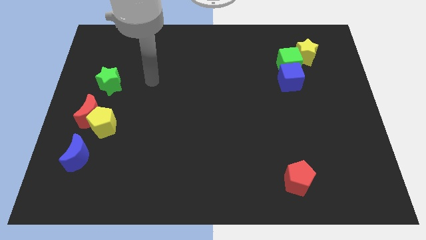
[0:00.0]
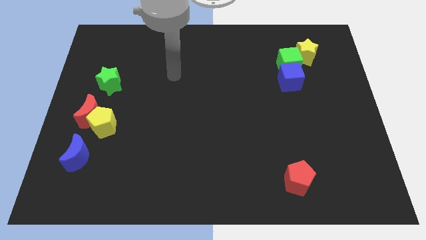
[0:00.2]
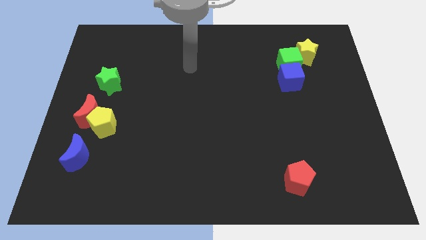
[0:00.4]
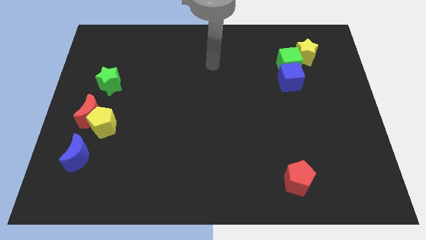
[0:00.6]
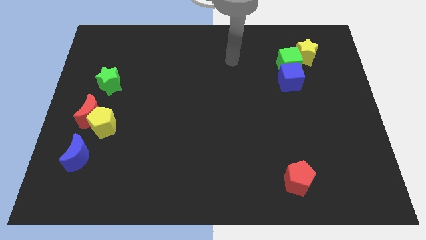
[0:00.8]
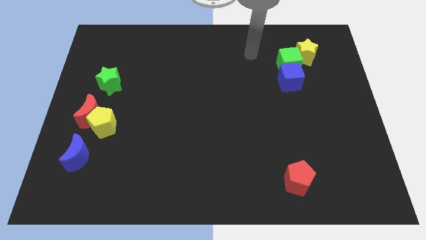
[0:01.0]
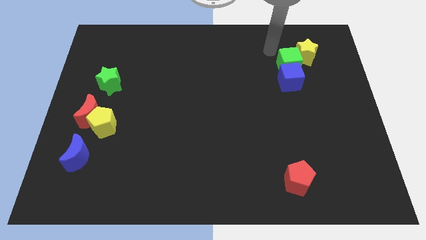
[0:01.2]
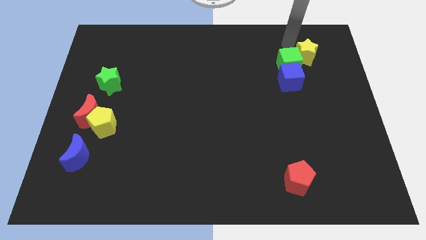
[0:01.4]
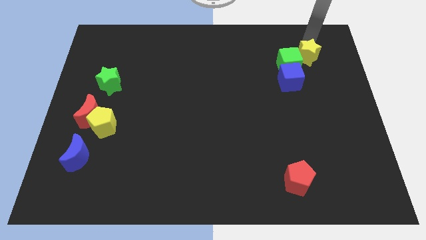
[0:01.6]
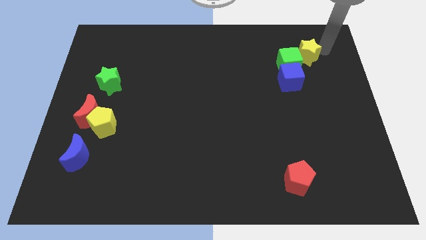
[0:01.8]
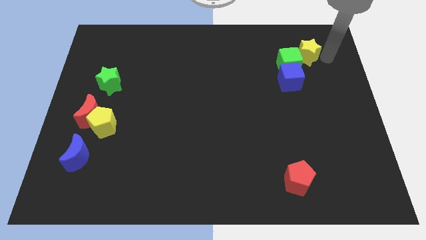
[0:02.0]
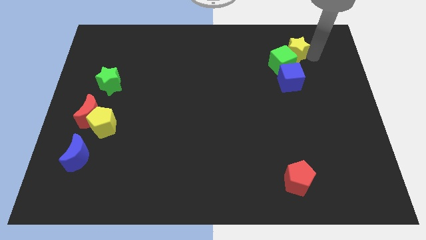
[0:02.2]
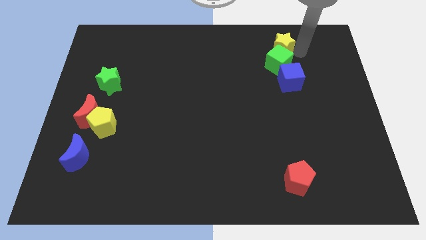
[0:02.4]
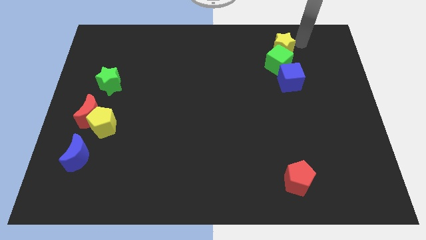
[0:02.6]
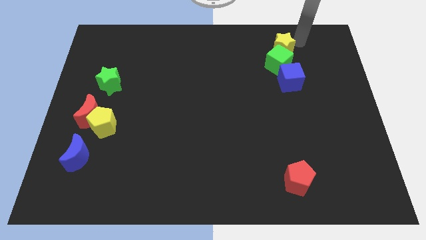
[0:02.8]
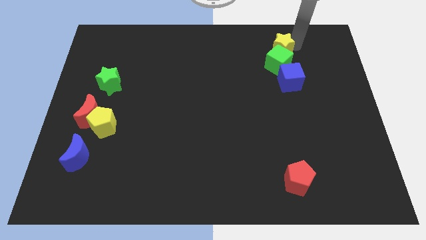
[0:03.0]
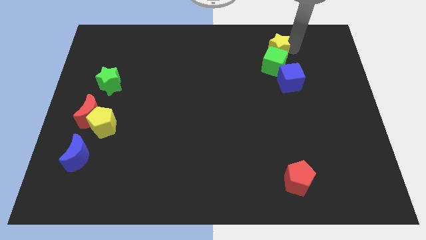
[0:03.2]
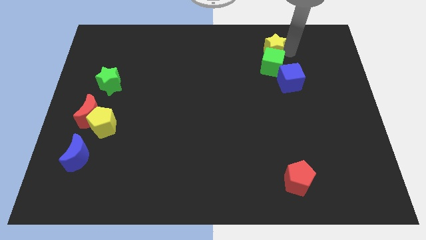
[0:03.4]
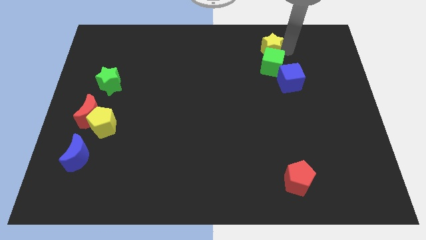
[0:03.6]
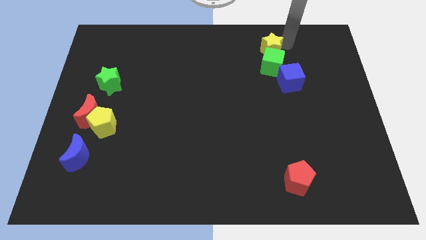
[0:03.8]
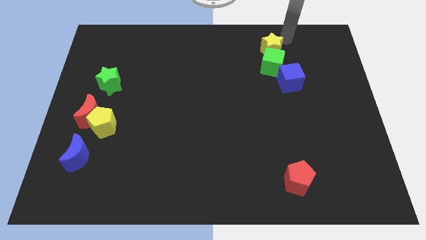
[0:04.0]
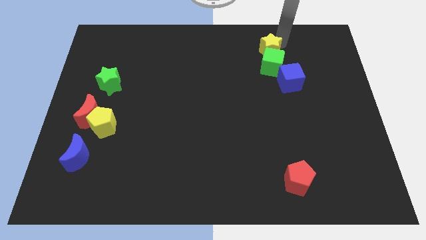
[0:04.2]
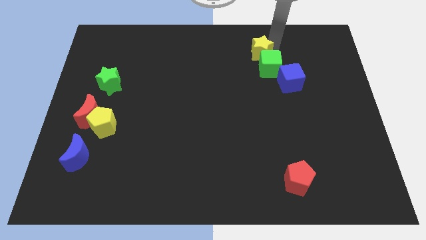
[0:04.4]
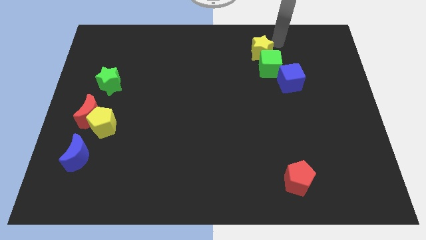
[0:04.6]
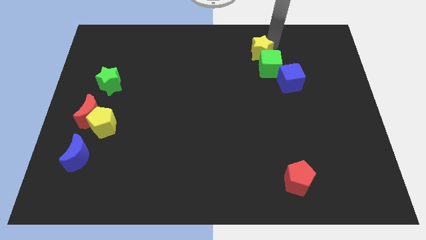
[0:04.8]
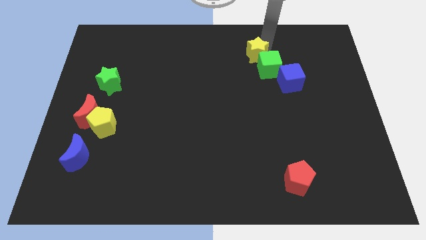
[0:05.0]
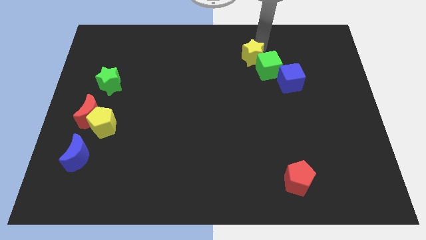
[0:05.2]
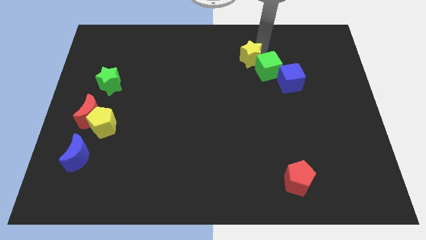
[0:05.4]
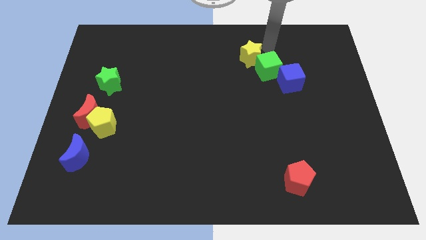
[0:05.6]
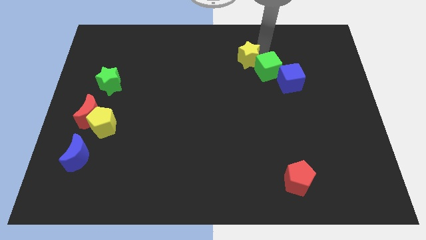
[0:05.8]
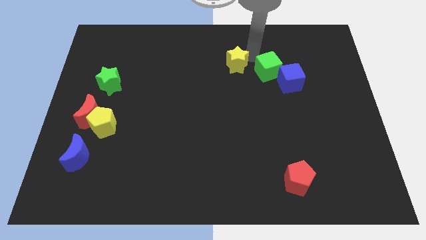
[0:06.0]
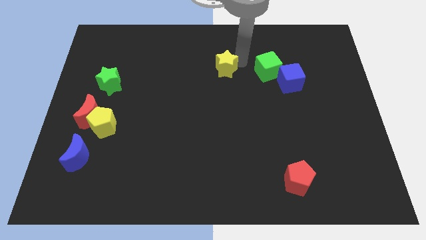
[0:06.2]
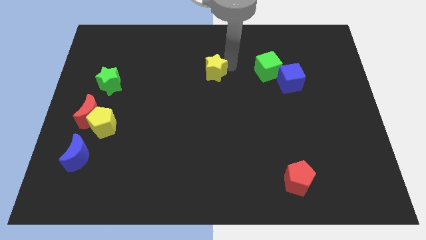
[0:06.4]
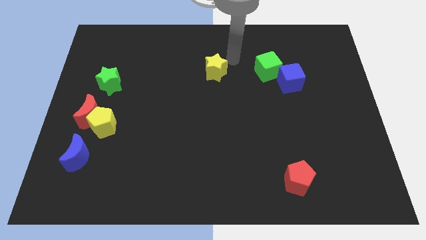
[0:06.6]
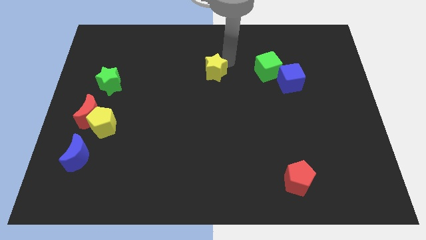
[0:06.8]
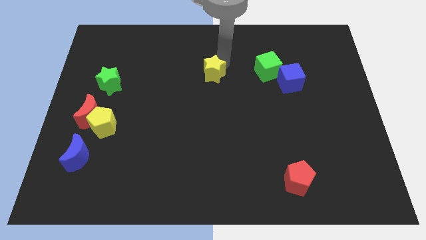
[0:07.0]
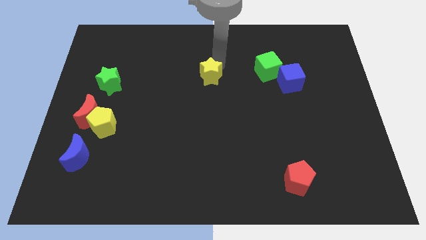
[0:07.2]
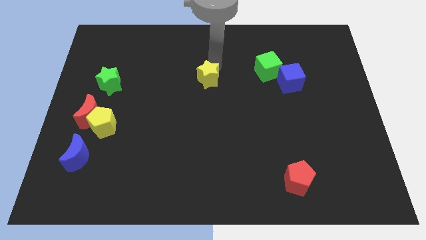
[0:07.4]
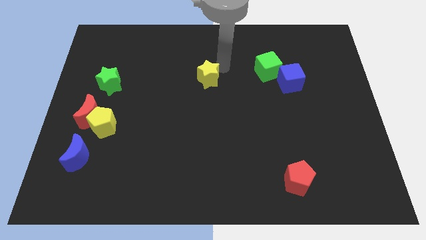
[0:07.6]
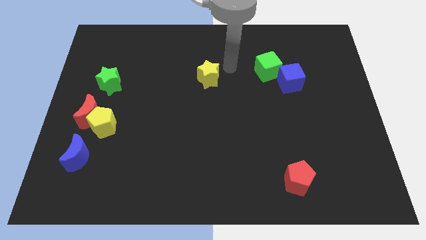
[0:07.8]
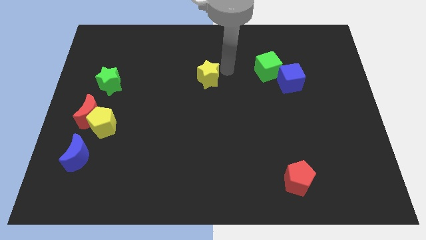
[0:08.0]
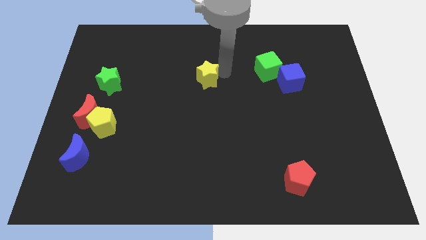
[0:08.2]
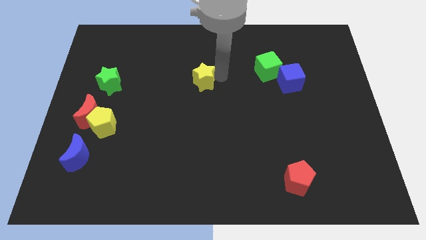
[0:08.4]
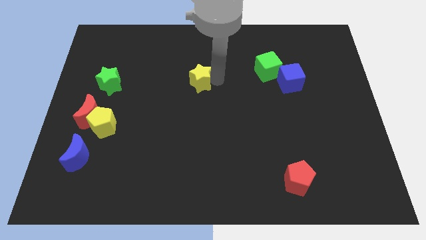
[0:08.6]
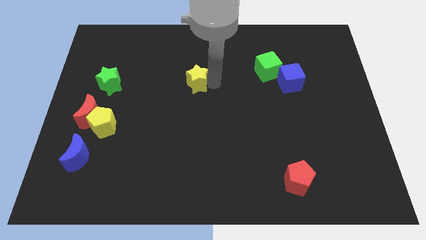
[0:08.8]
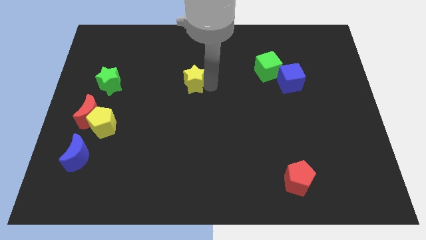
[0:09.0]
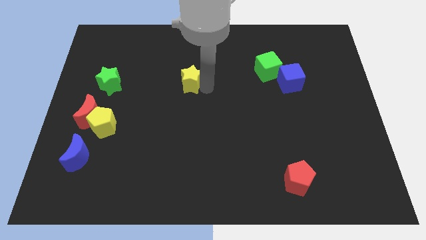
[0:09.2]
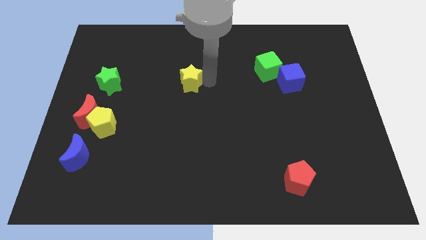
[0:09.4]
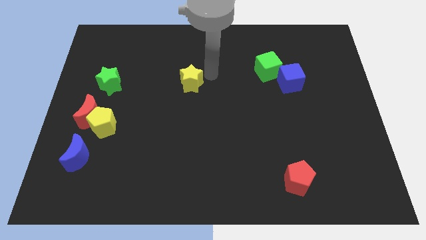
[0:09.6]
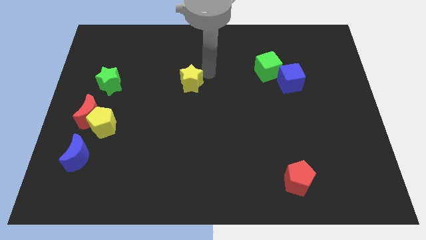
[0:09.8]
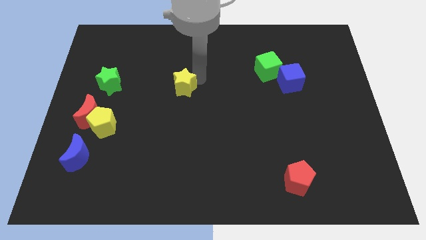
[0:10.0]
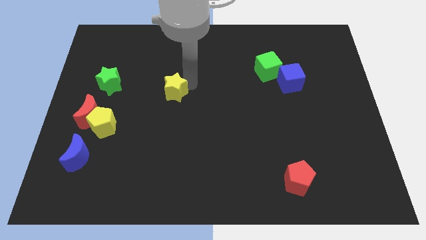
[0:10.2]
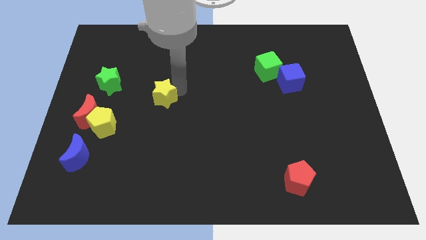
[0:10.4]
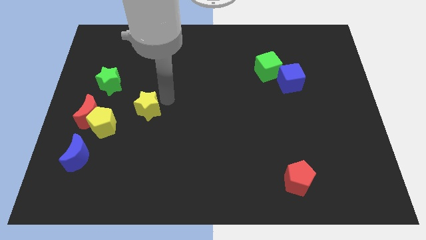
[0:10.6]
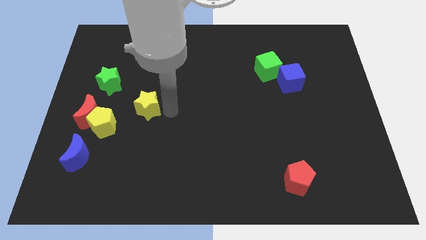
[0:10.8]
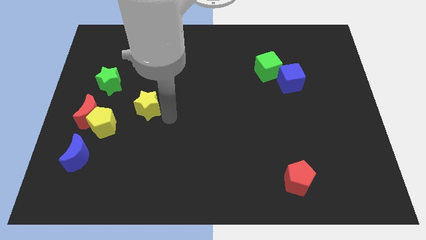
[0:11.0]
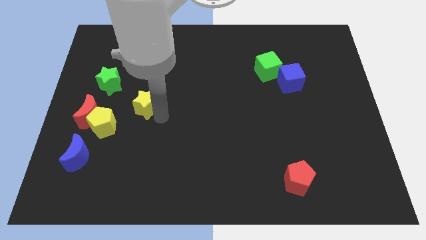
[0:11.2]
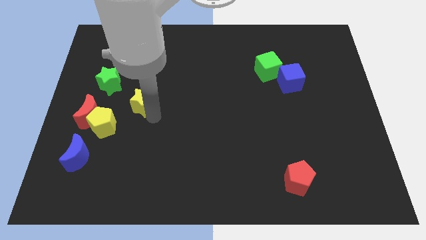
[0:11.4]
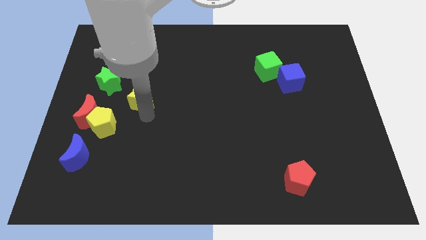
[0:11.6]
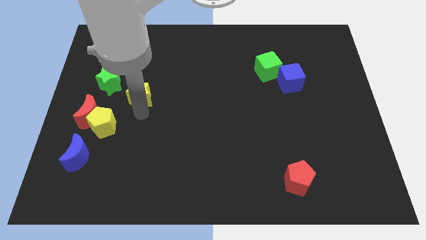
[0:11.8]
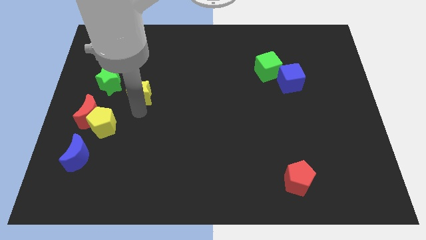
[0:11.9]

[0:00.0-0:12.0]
move the yellow star diagonally up and to the right of the red moon

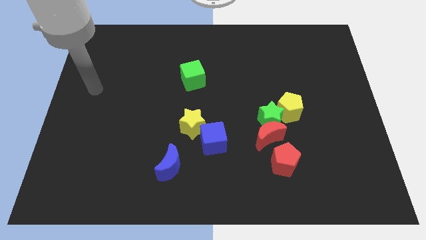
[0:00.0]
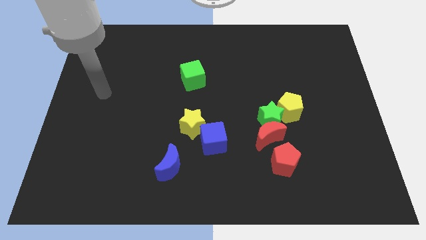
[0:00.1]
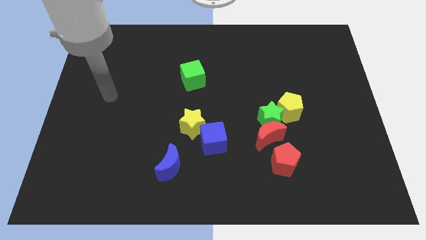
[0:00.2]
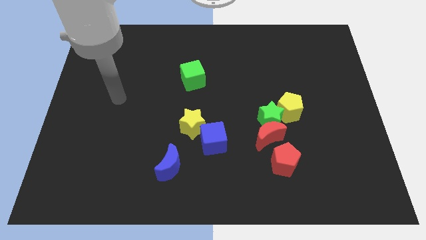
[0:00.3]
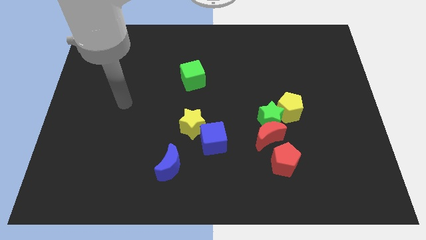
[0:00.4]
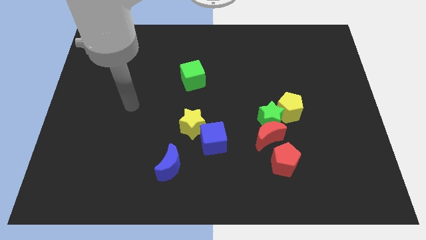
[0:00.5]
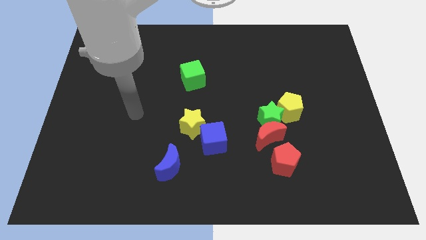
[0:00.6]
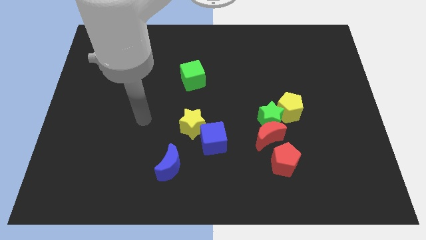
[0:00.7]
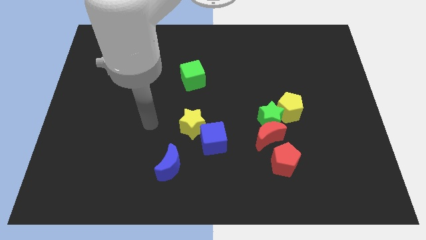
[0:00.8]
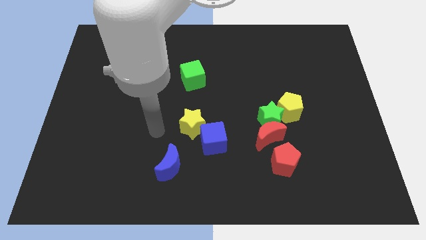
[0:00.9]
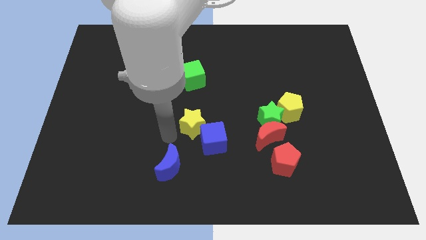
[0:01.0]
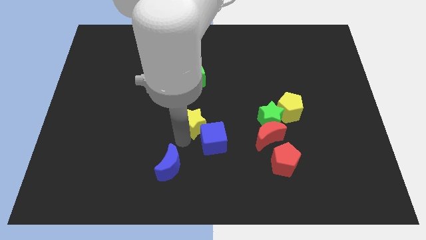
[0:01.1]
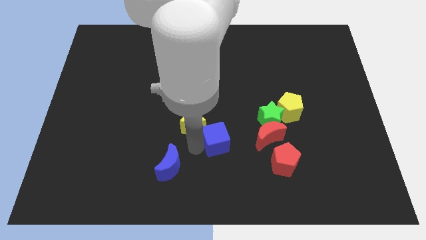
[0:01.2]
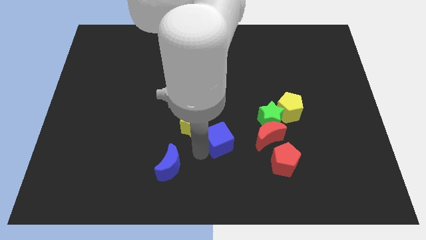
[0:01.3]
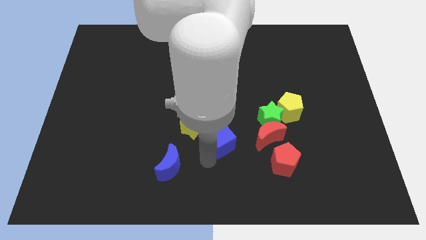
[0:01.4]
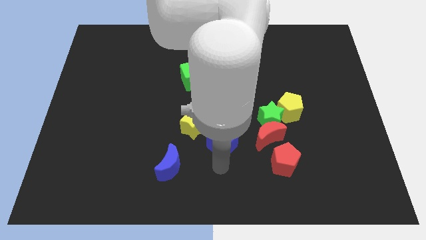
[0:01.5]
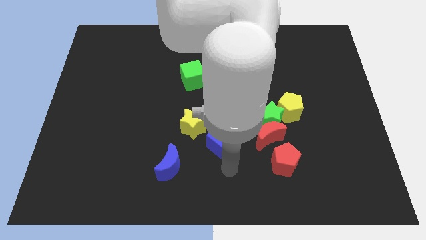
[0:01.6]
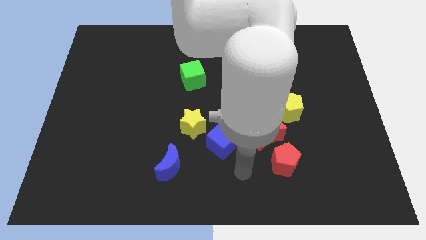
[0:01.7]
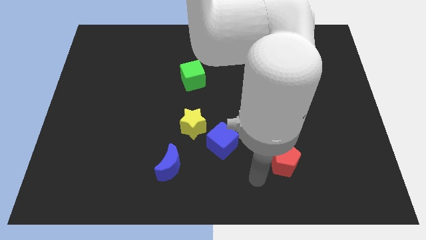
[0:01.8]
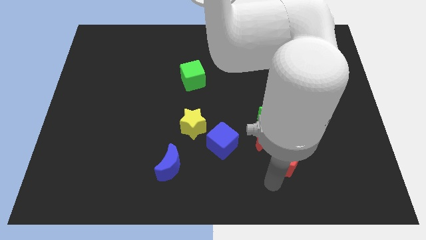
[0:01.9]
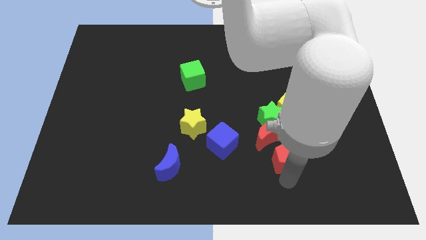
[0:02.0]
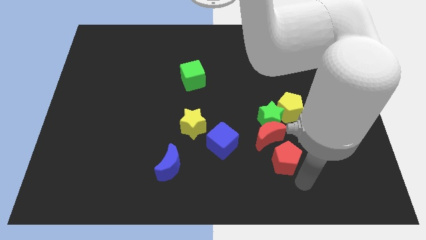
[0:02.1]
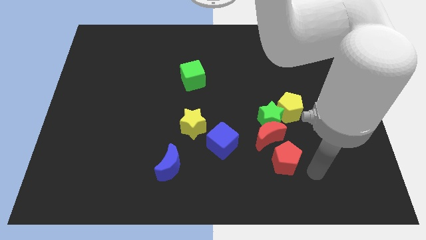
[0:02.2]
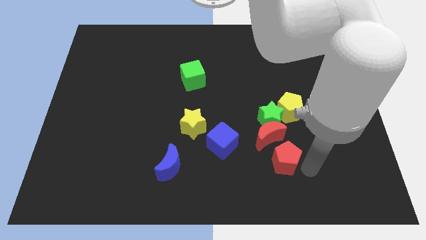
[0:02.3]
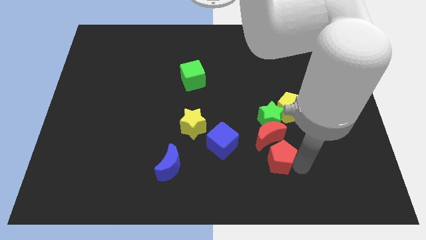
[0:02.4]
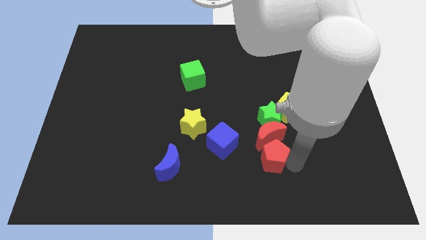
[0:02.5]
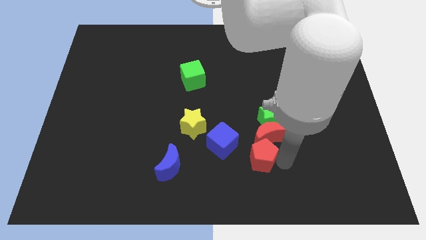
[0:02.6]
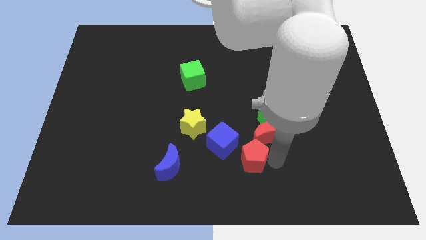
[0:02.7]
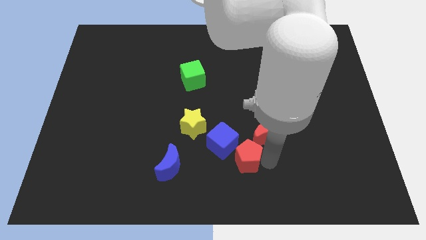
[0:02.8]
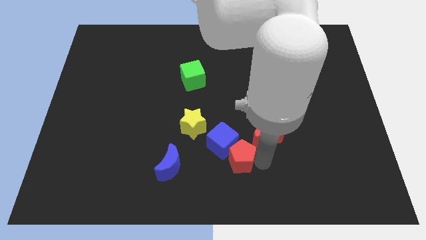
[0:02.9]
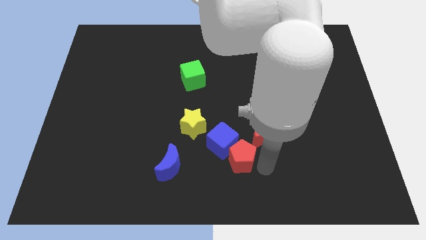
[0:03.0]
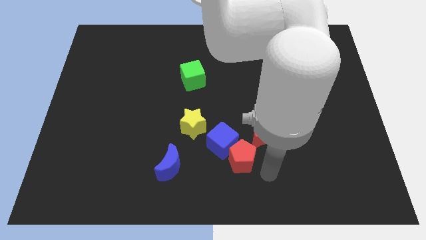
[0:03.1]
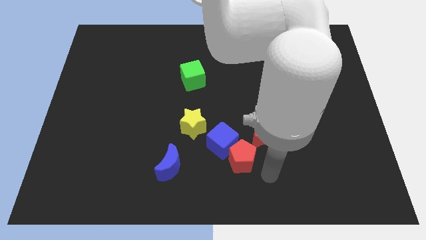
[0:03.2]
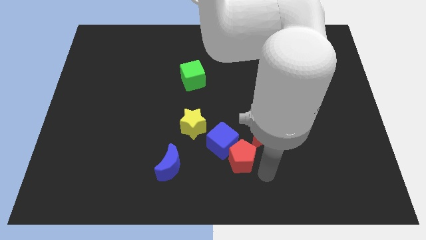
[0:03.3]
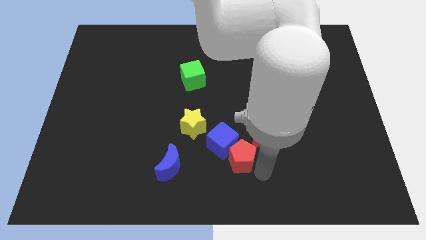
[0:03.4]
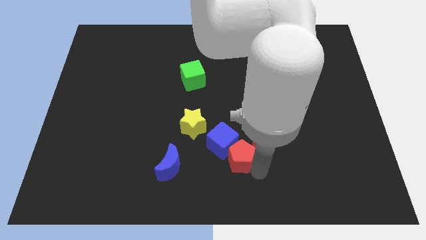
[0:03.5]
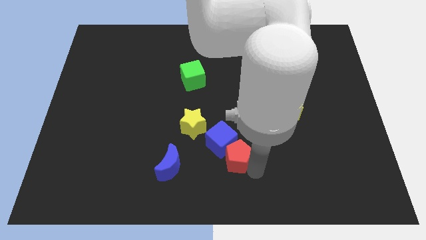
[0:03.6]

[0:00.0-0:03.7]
move the red pentagon to the bottom right of the yellow star
